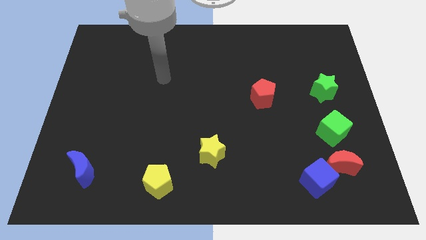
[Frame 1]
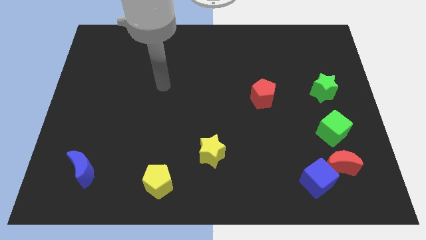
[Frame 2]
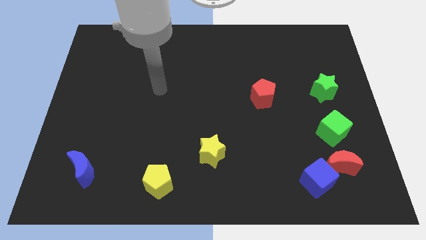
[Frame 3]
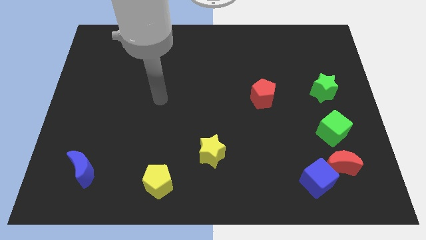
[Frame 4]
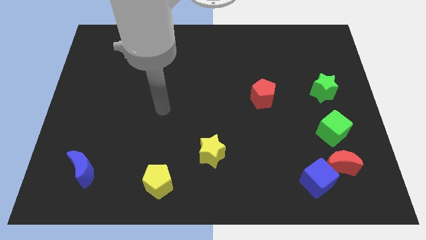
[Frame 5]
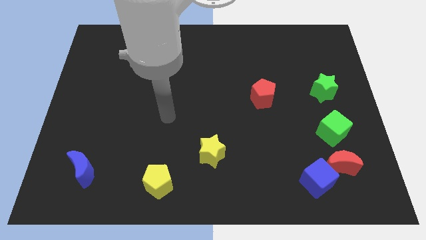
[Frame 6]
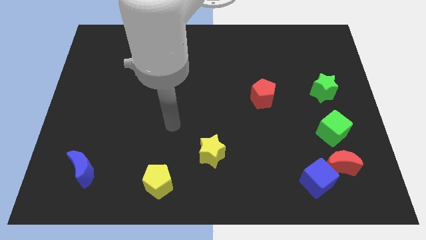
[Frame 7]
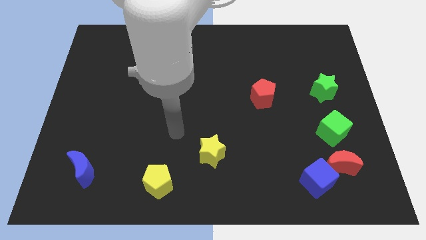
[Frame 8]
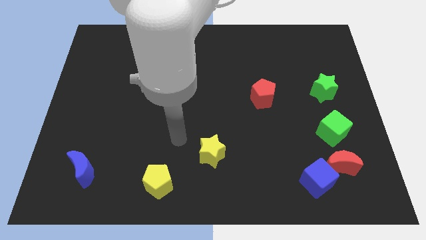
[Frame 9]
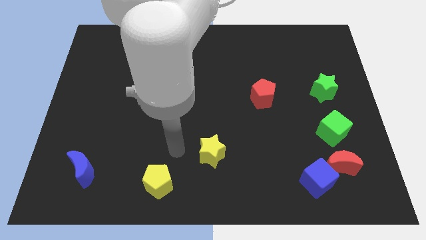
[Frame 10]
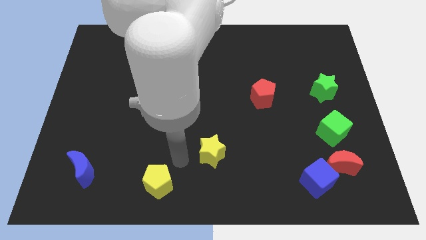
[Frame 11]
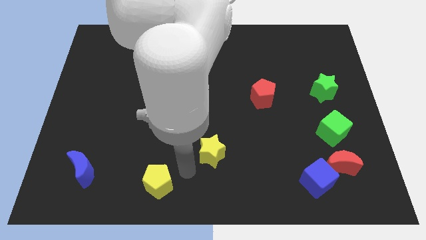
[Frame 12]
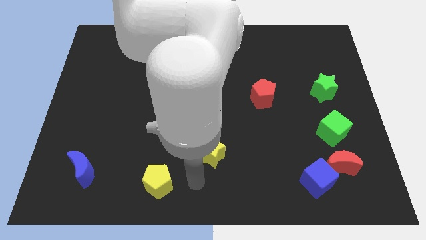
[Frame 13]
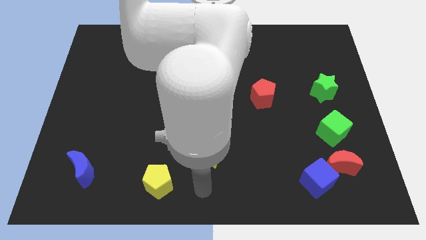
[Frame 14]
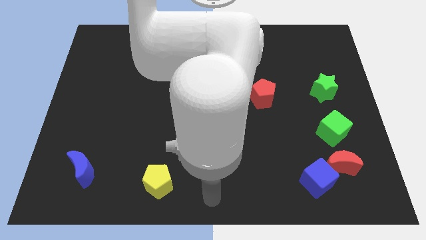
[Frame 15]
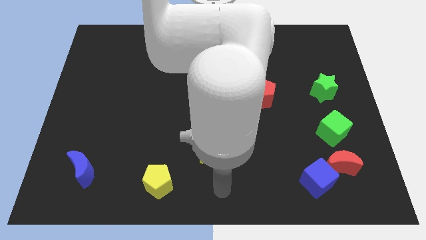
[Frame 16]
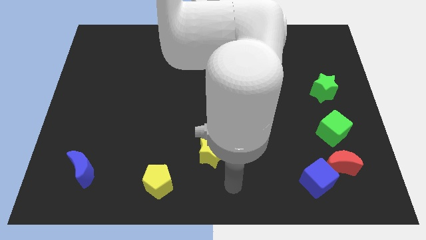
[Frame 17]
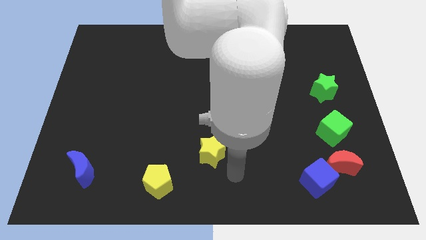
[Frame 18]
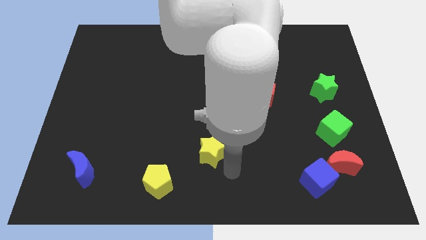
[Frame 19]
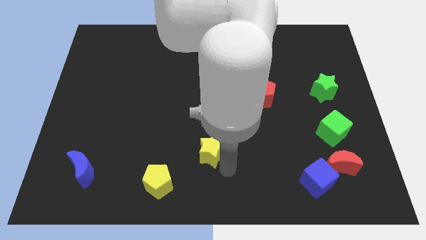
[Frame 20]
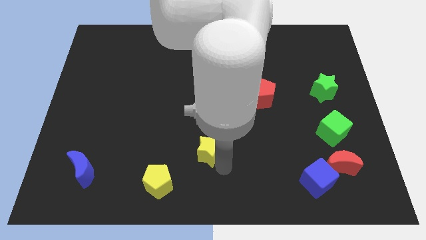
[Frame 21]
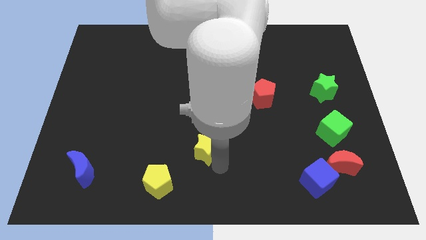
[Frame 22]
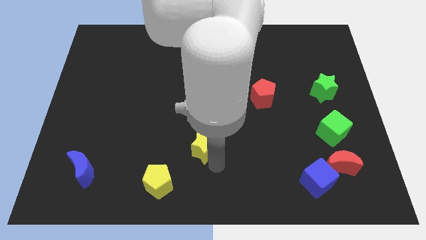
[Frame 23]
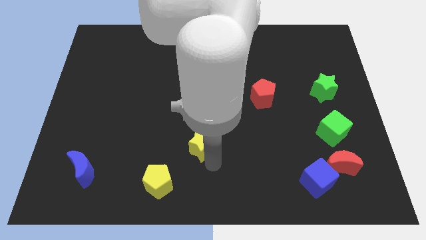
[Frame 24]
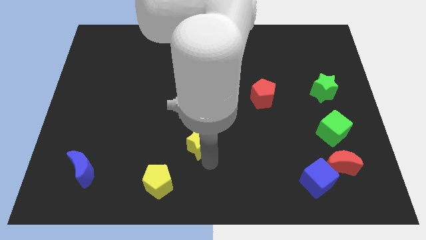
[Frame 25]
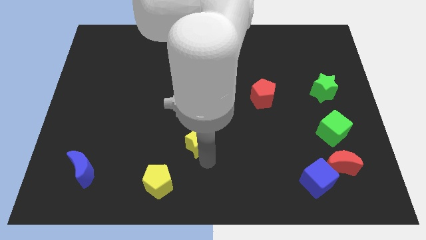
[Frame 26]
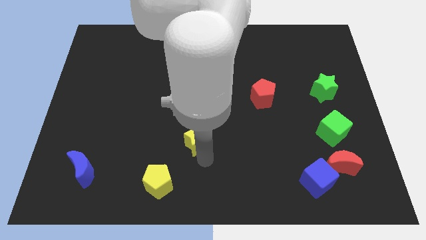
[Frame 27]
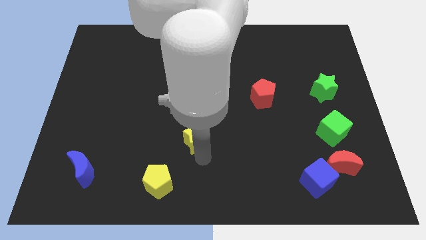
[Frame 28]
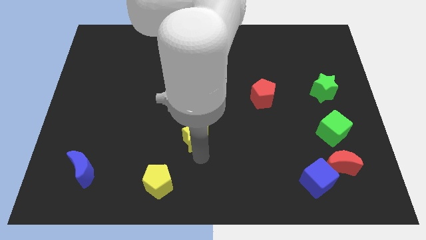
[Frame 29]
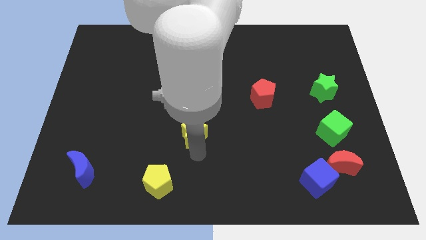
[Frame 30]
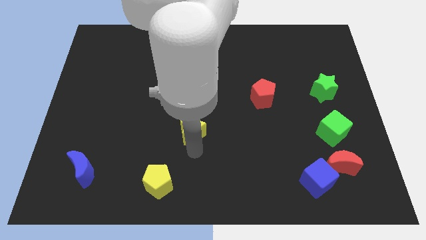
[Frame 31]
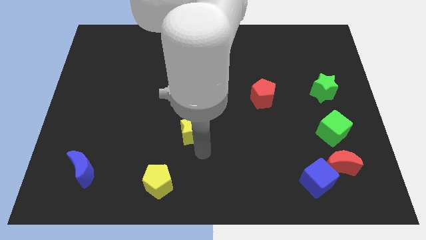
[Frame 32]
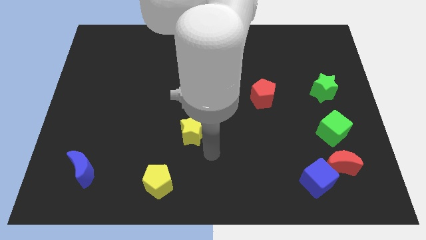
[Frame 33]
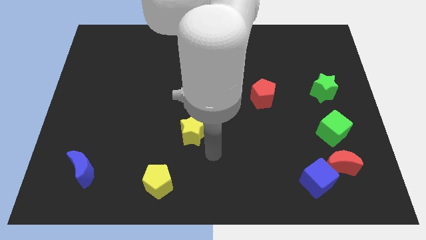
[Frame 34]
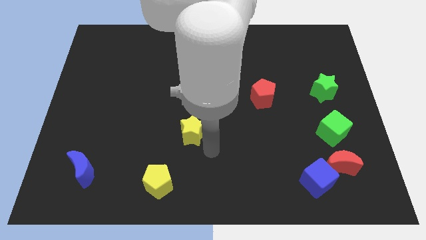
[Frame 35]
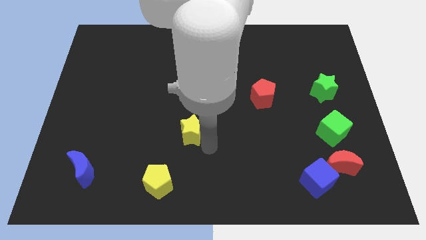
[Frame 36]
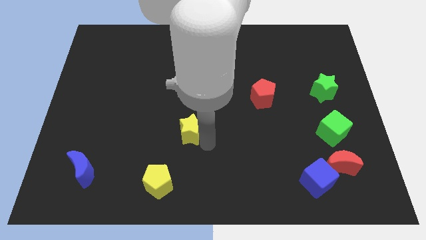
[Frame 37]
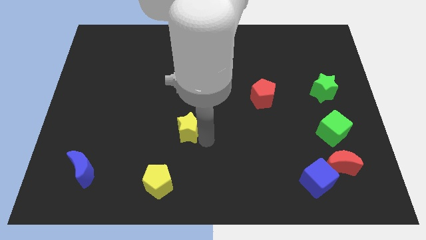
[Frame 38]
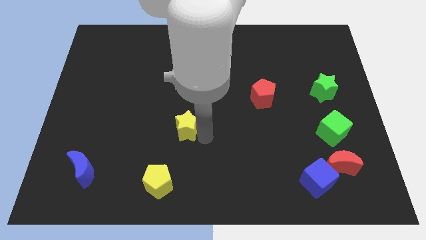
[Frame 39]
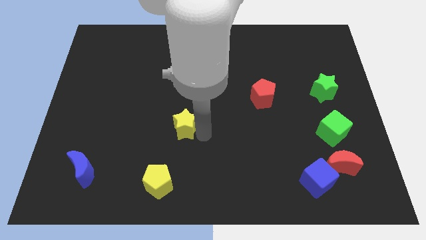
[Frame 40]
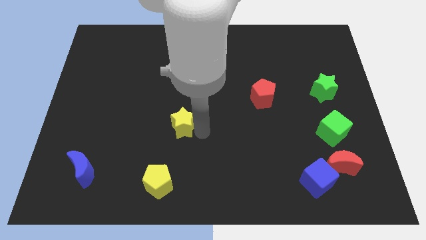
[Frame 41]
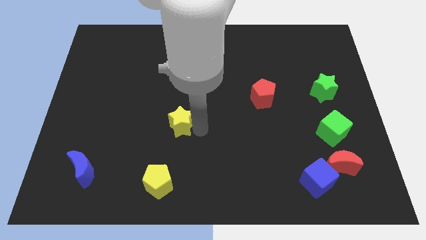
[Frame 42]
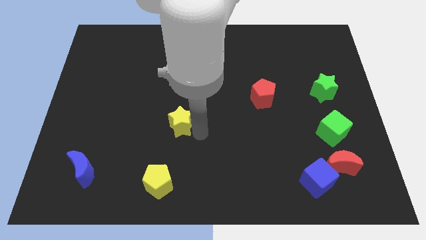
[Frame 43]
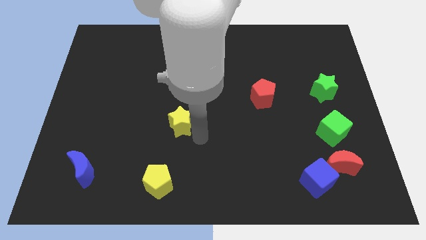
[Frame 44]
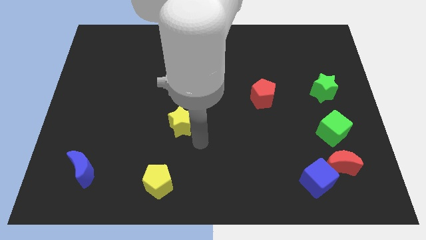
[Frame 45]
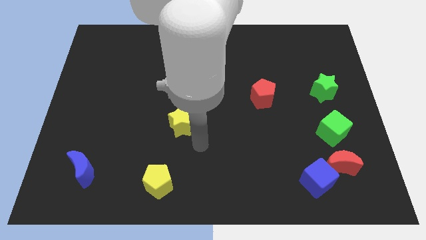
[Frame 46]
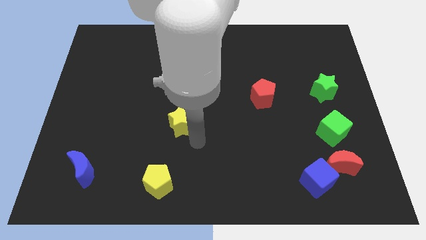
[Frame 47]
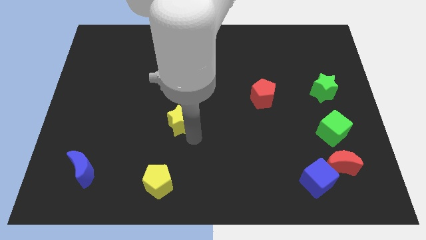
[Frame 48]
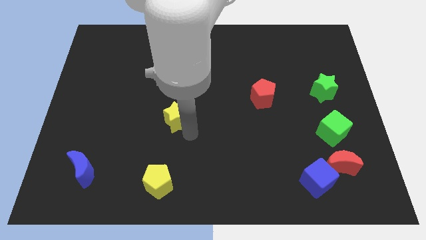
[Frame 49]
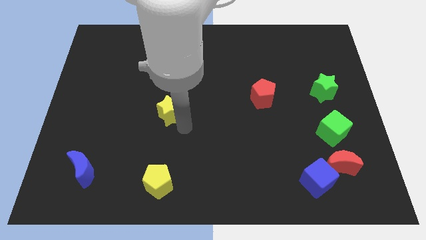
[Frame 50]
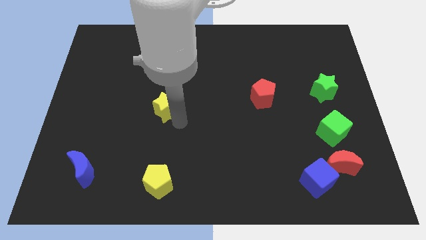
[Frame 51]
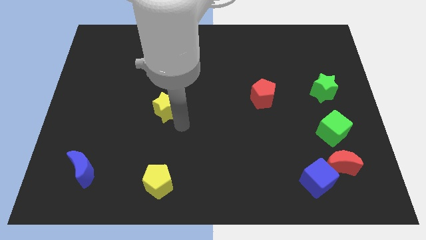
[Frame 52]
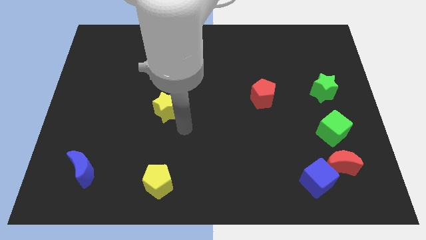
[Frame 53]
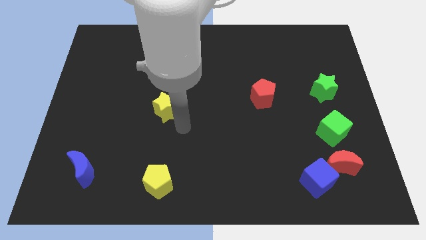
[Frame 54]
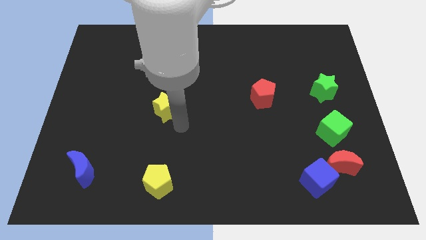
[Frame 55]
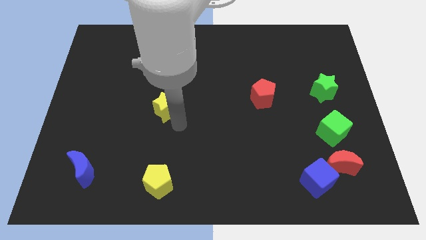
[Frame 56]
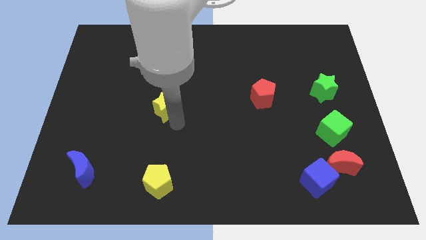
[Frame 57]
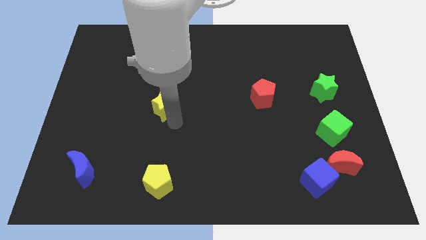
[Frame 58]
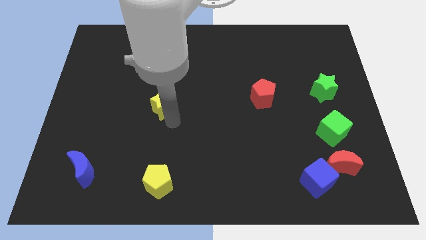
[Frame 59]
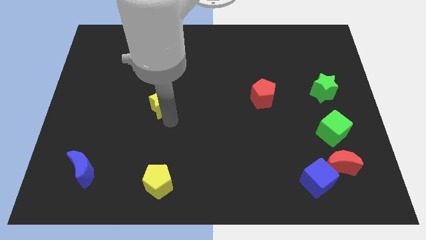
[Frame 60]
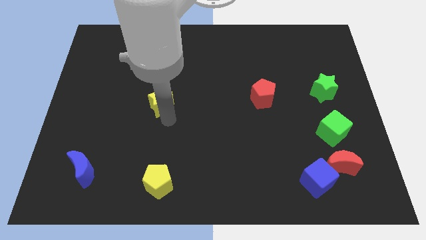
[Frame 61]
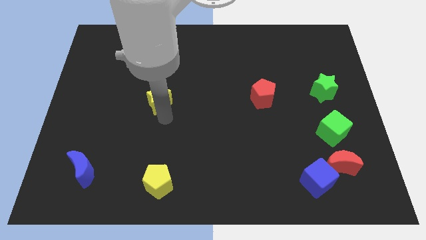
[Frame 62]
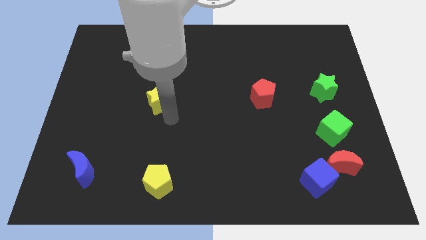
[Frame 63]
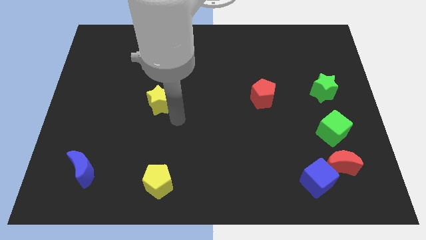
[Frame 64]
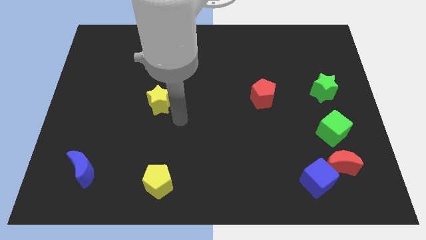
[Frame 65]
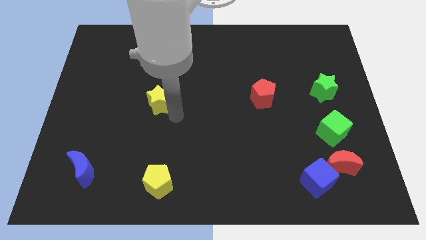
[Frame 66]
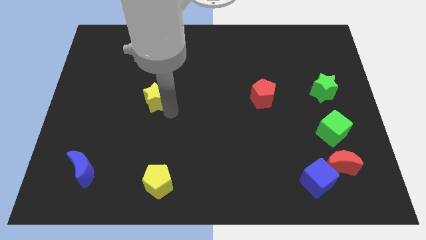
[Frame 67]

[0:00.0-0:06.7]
slide the yellow star up and left diagonally

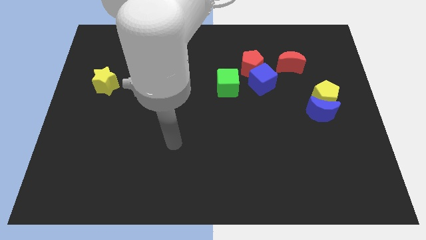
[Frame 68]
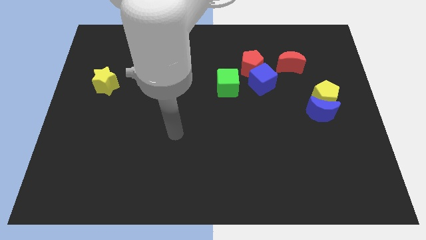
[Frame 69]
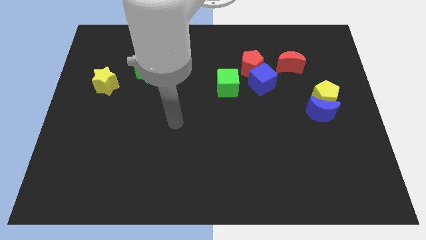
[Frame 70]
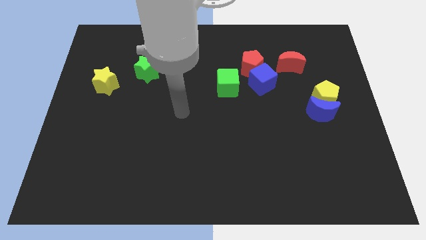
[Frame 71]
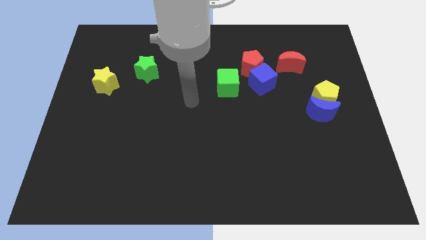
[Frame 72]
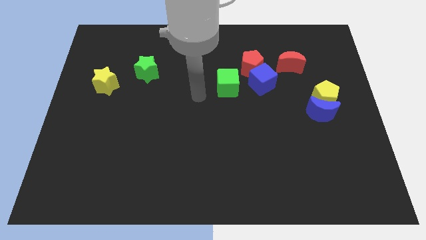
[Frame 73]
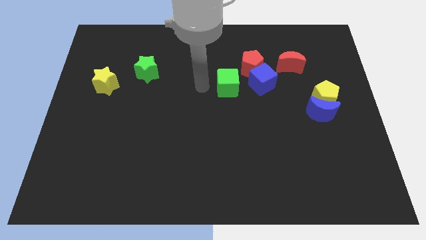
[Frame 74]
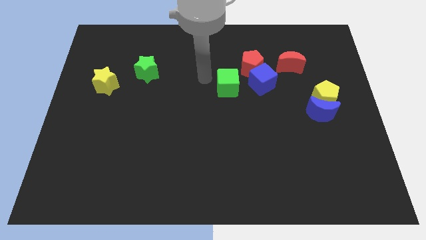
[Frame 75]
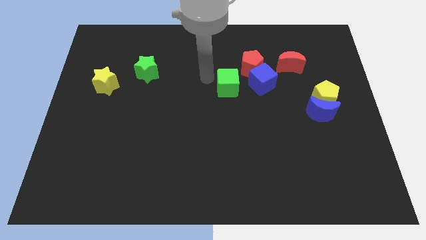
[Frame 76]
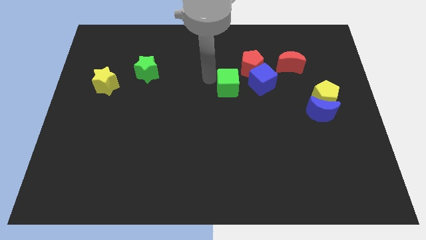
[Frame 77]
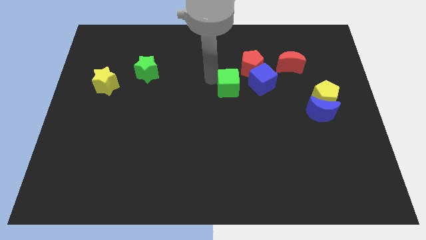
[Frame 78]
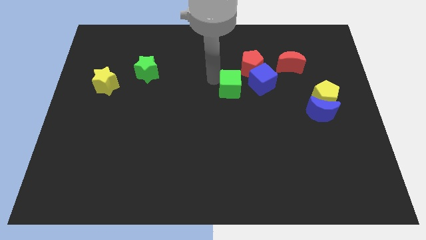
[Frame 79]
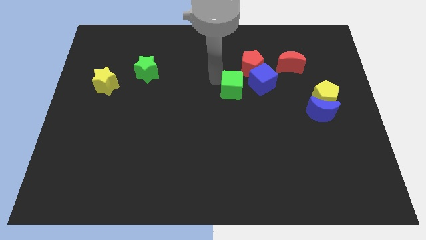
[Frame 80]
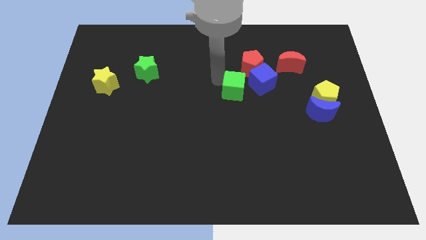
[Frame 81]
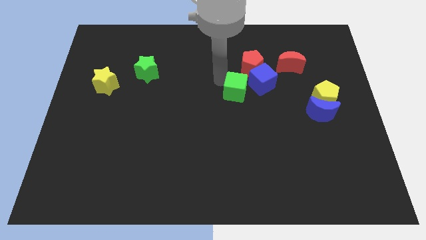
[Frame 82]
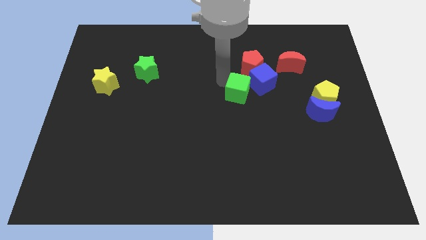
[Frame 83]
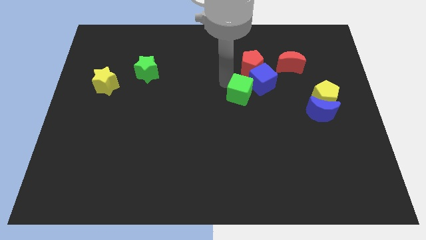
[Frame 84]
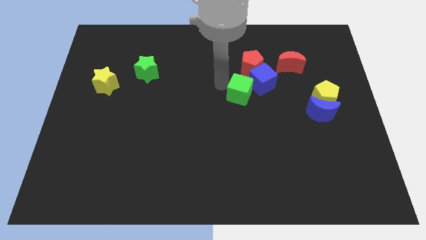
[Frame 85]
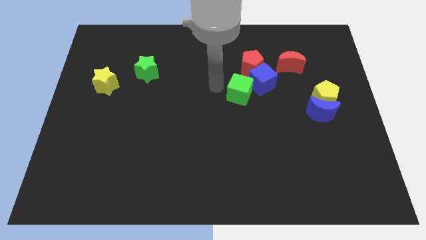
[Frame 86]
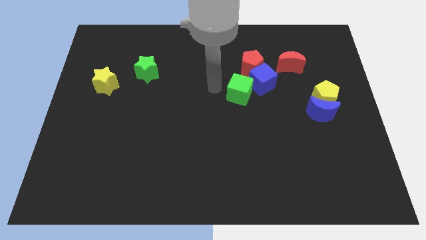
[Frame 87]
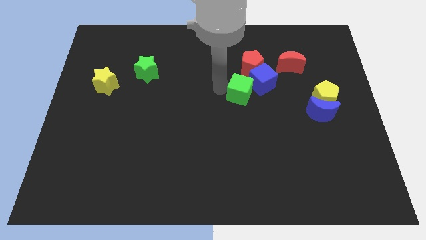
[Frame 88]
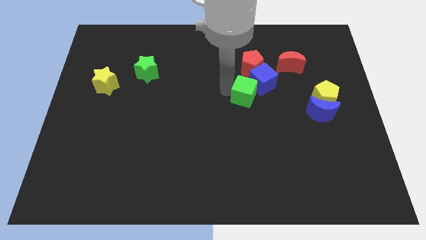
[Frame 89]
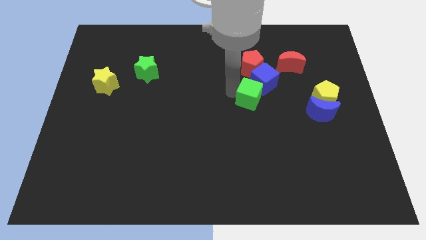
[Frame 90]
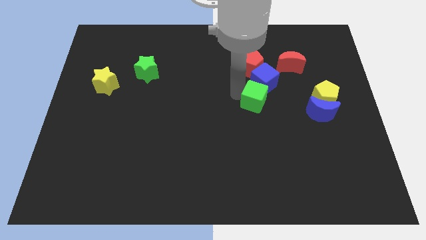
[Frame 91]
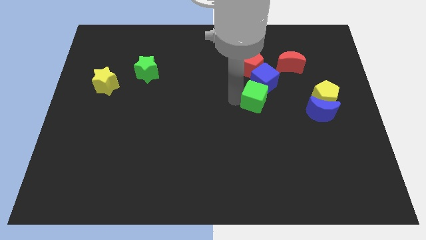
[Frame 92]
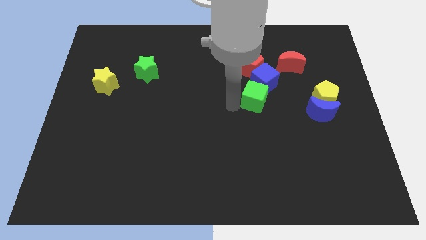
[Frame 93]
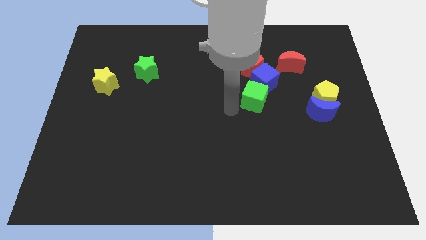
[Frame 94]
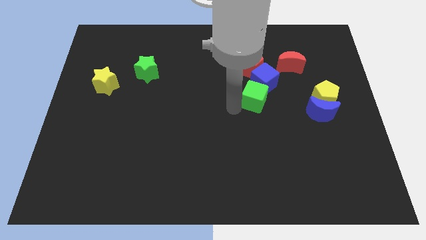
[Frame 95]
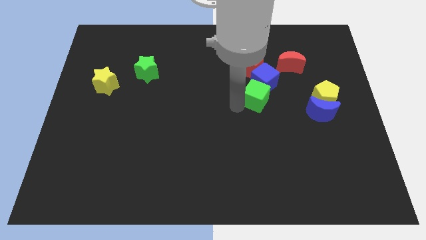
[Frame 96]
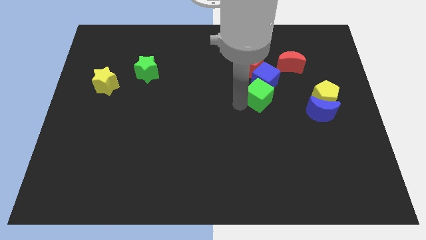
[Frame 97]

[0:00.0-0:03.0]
slightly push the green cube to the right
